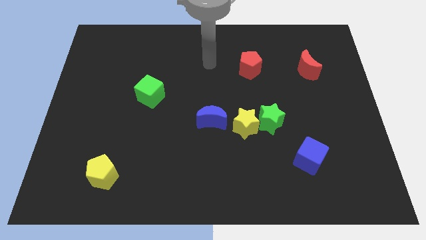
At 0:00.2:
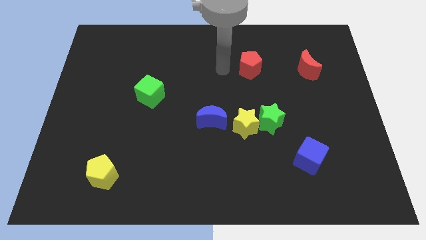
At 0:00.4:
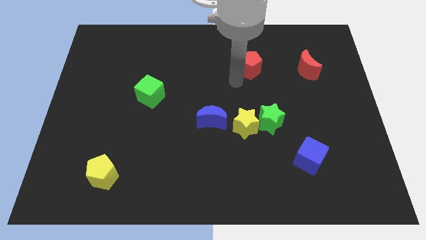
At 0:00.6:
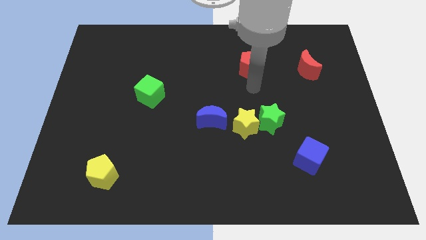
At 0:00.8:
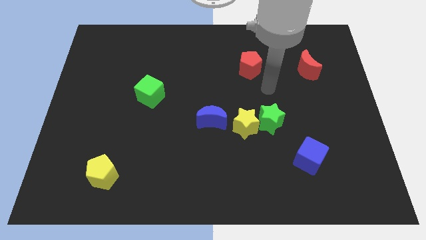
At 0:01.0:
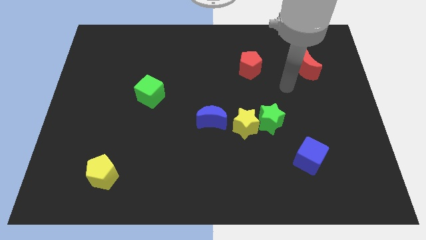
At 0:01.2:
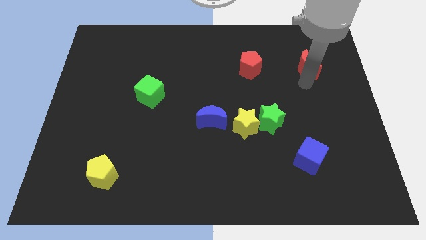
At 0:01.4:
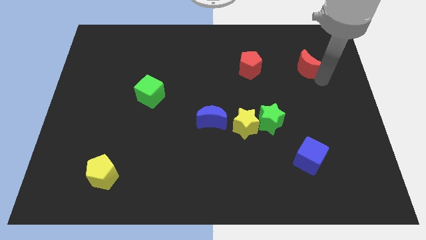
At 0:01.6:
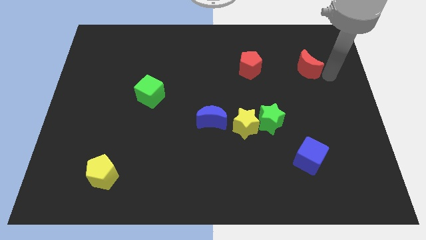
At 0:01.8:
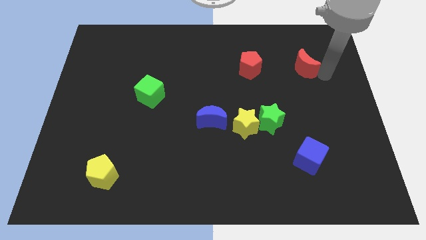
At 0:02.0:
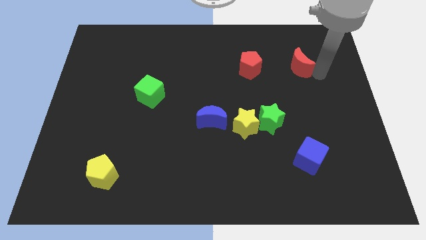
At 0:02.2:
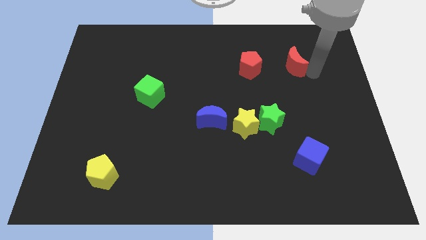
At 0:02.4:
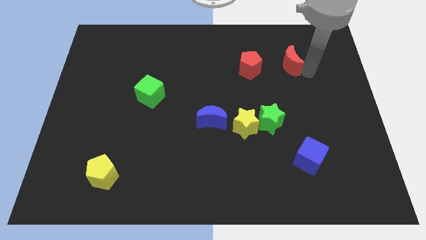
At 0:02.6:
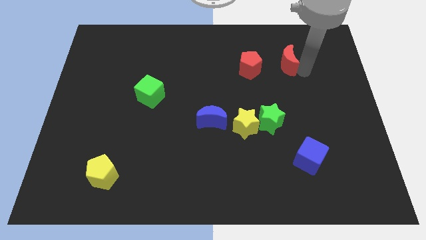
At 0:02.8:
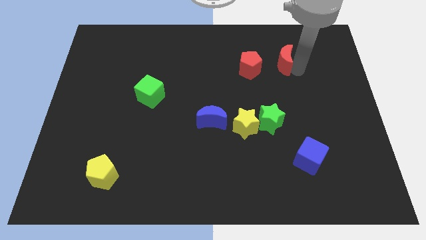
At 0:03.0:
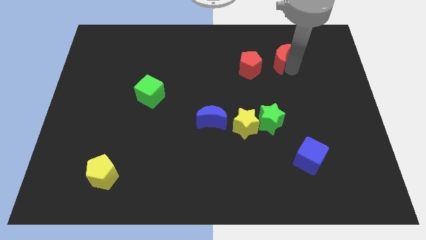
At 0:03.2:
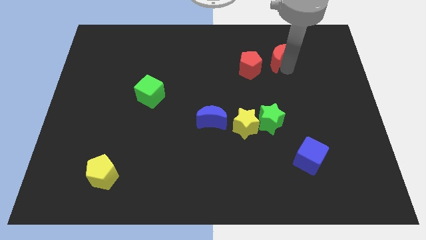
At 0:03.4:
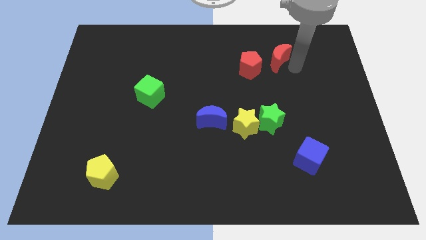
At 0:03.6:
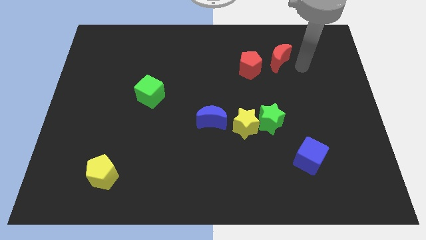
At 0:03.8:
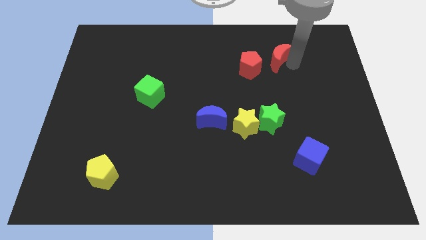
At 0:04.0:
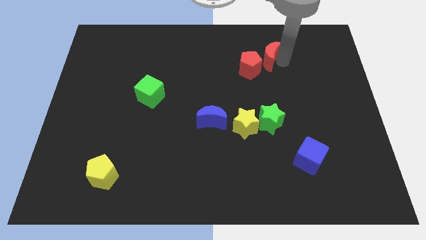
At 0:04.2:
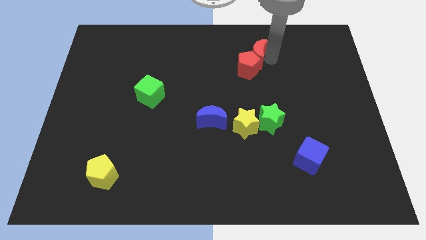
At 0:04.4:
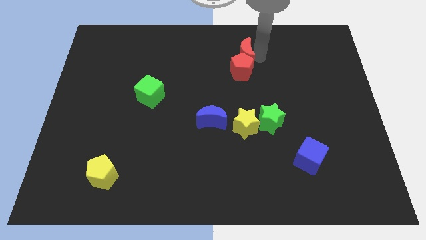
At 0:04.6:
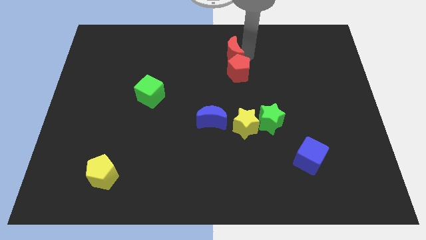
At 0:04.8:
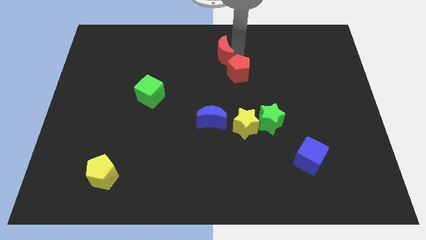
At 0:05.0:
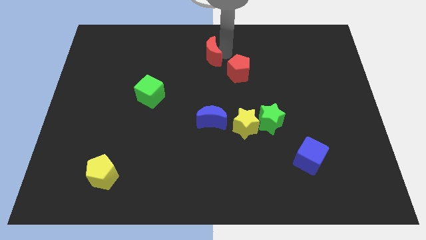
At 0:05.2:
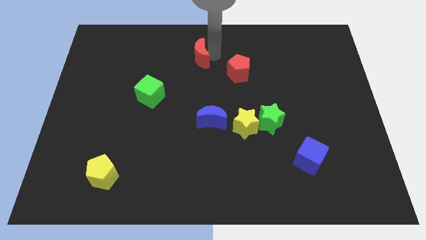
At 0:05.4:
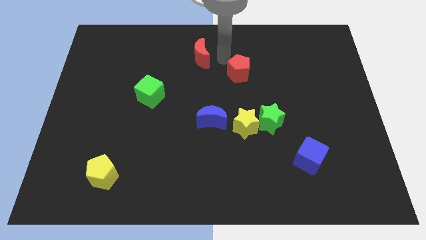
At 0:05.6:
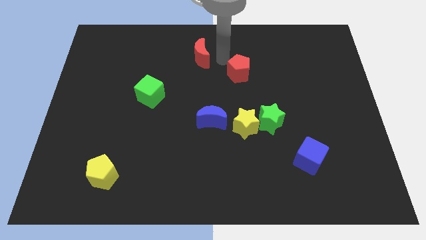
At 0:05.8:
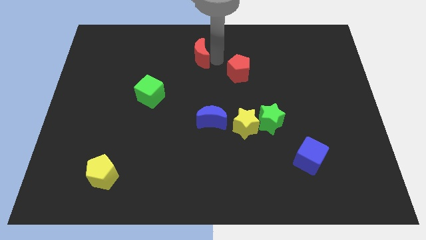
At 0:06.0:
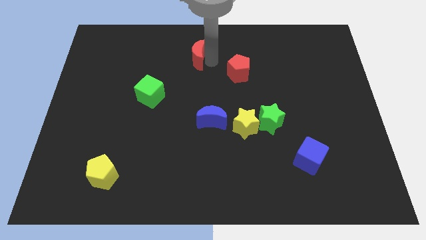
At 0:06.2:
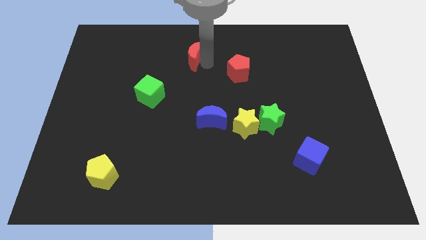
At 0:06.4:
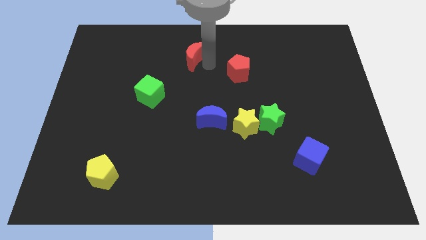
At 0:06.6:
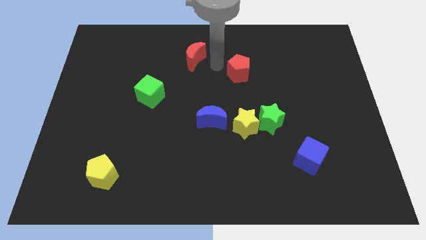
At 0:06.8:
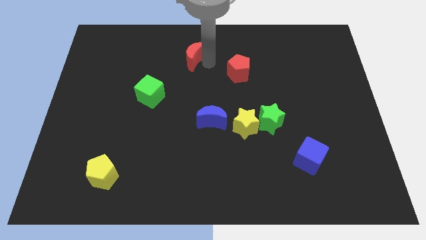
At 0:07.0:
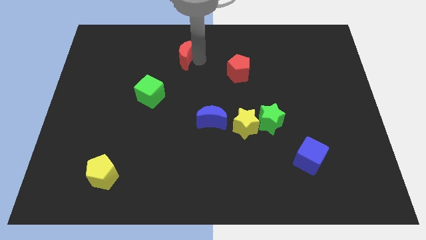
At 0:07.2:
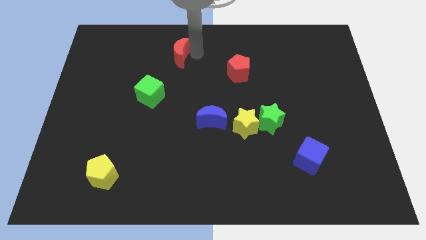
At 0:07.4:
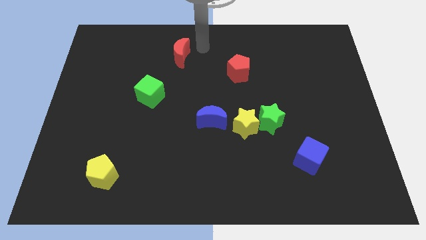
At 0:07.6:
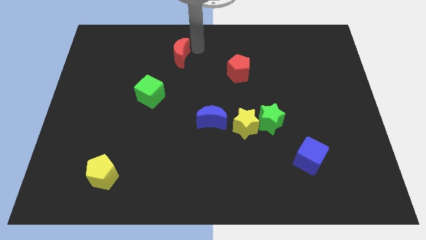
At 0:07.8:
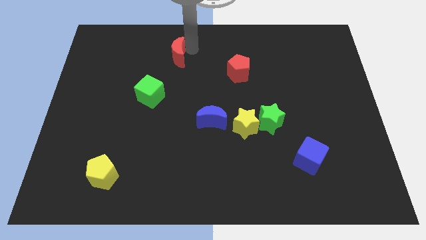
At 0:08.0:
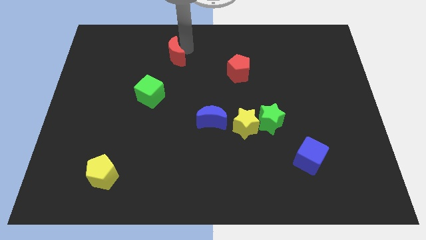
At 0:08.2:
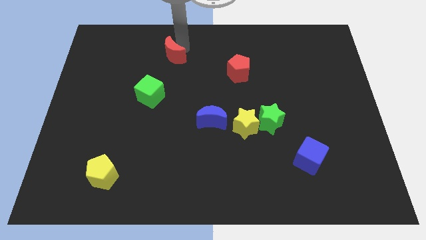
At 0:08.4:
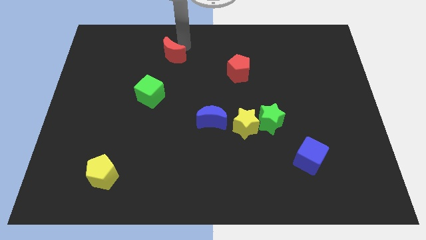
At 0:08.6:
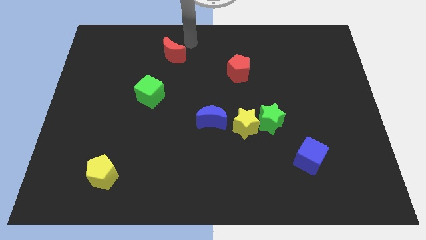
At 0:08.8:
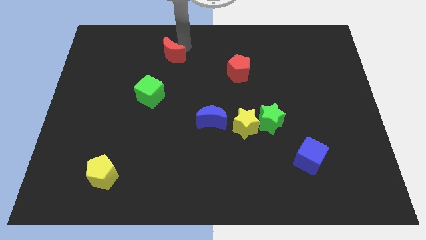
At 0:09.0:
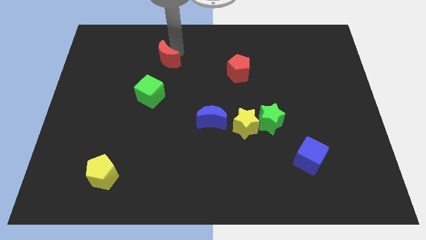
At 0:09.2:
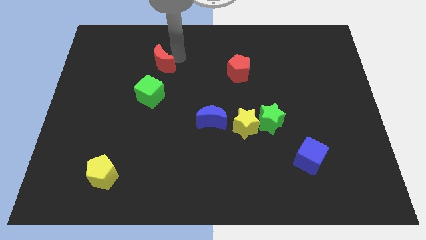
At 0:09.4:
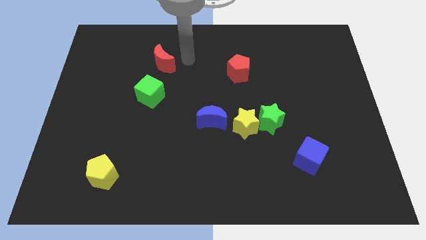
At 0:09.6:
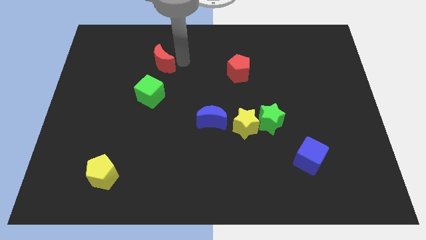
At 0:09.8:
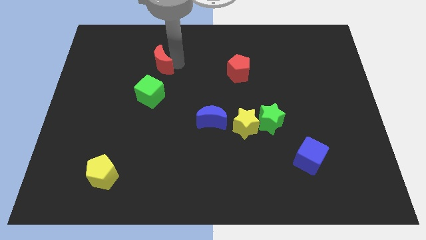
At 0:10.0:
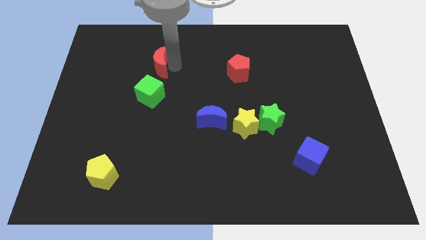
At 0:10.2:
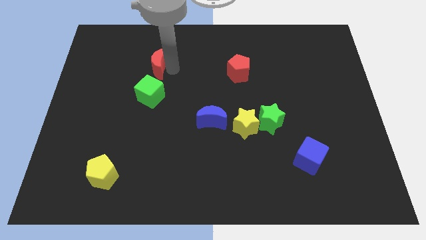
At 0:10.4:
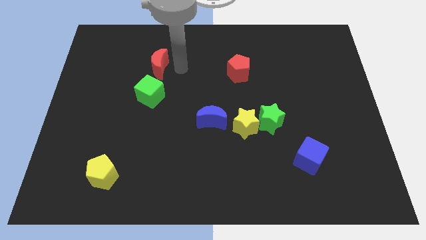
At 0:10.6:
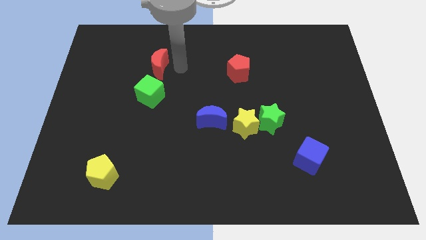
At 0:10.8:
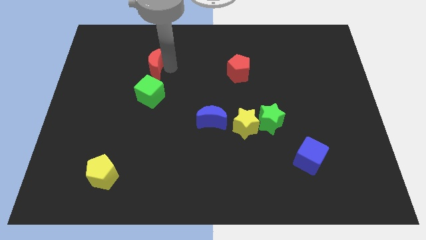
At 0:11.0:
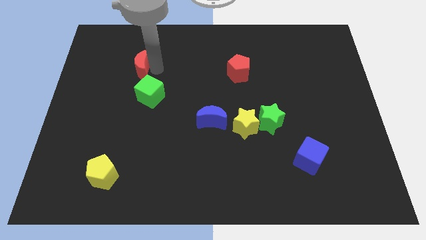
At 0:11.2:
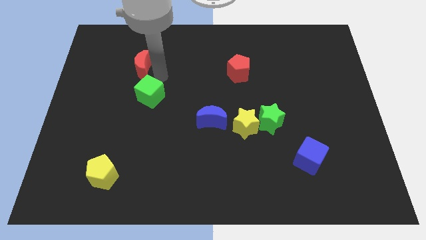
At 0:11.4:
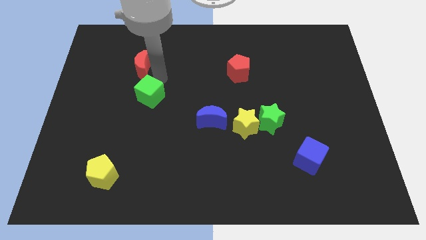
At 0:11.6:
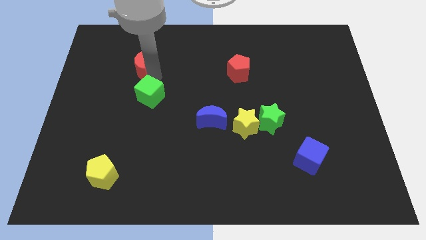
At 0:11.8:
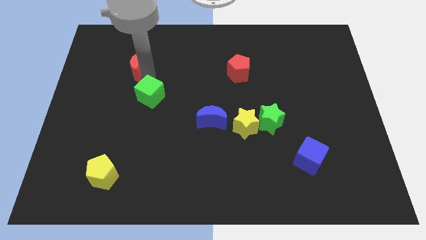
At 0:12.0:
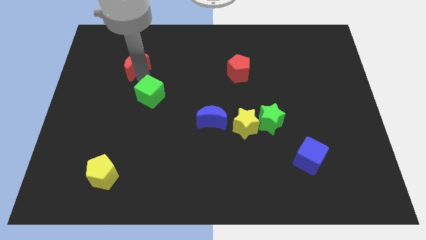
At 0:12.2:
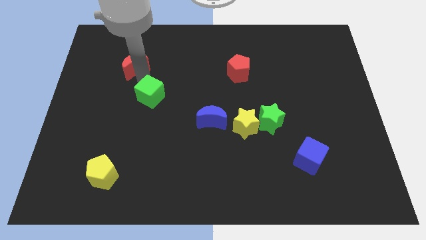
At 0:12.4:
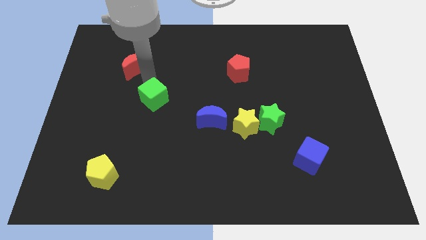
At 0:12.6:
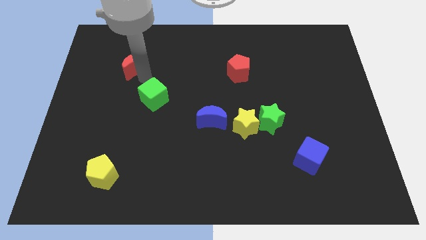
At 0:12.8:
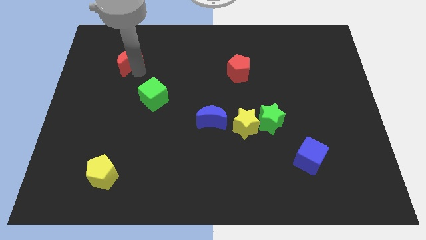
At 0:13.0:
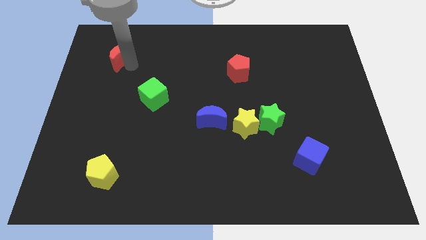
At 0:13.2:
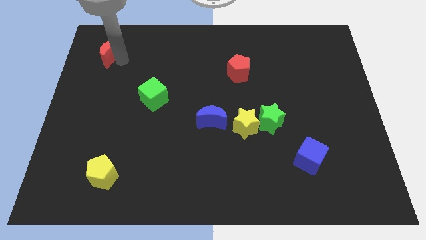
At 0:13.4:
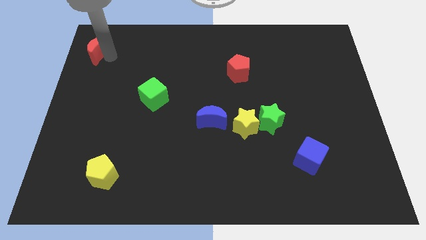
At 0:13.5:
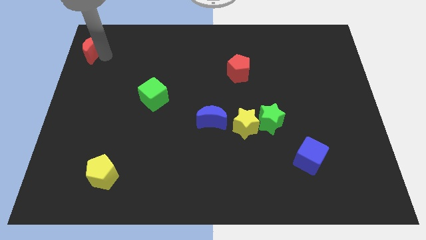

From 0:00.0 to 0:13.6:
push the red moon to the top left

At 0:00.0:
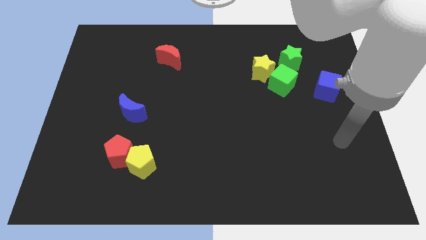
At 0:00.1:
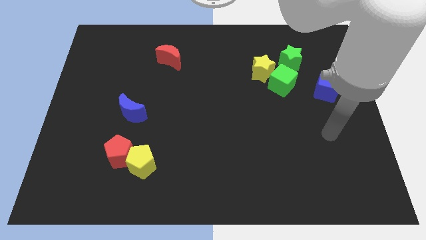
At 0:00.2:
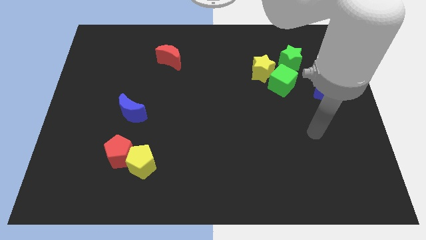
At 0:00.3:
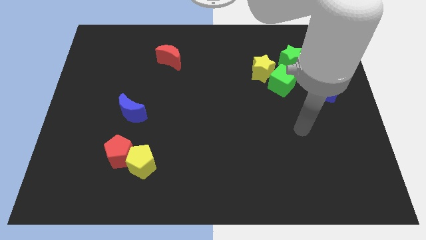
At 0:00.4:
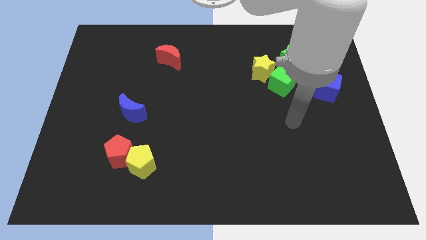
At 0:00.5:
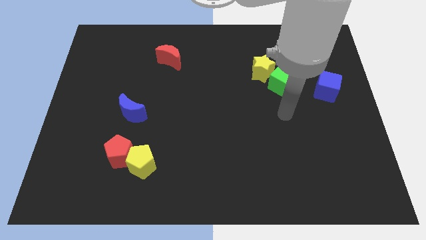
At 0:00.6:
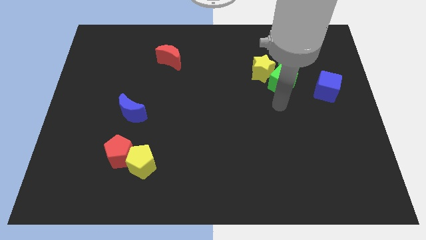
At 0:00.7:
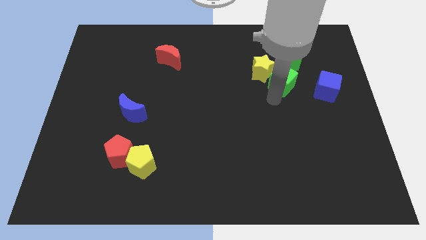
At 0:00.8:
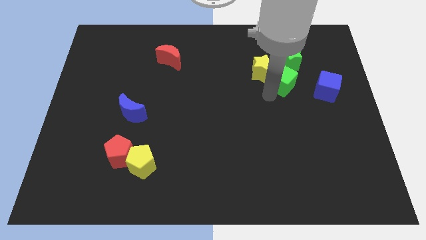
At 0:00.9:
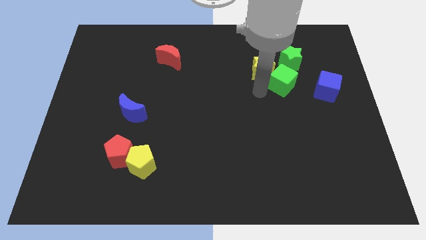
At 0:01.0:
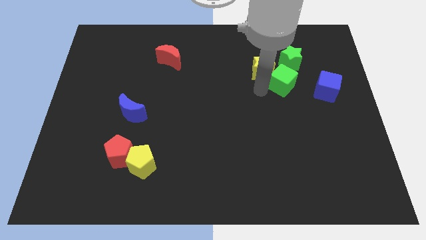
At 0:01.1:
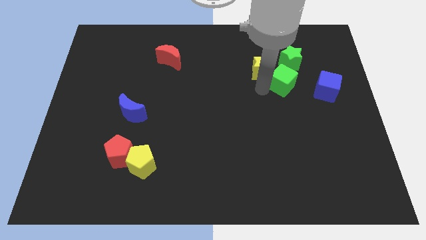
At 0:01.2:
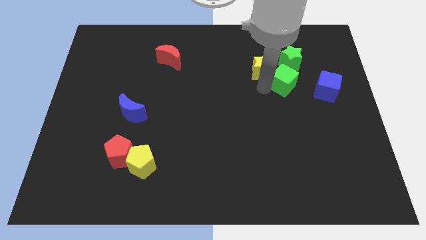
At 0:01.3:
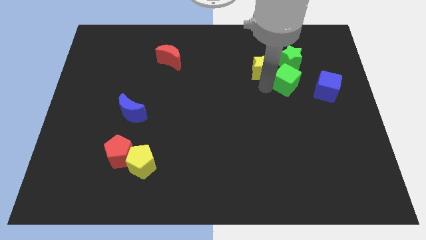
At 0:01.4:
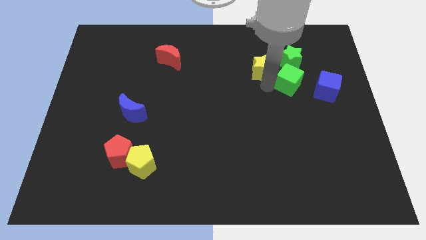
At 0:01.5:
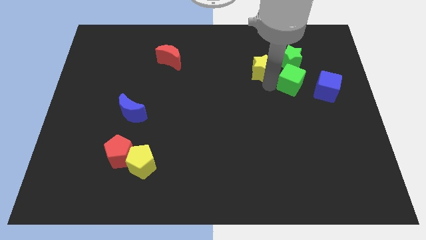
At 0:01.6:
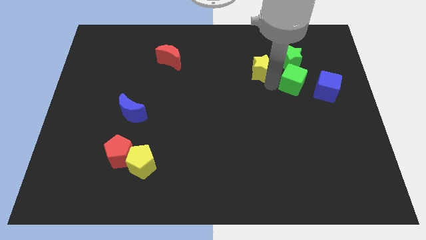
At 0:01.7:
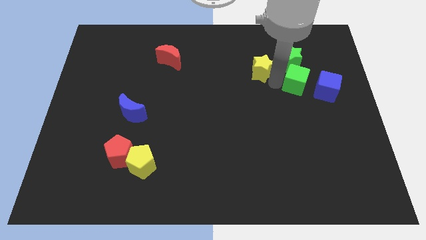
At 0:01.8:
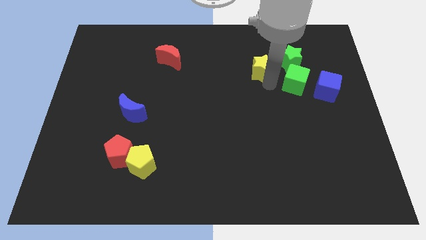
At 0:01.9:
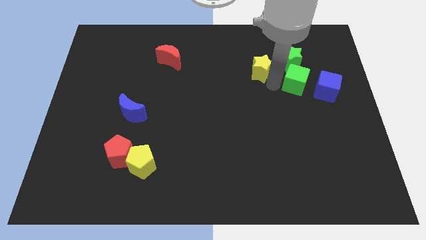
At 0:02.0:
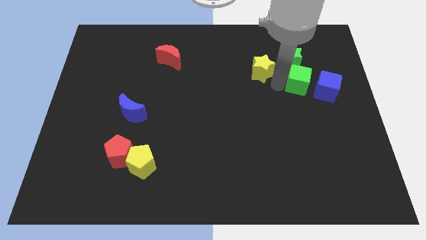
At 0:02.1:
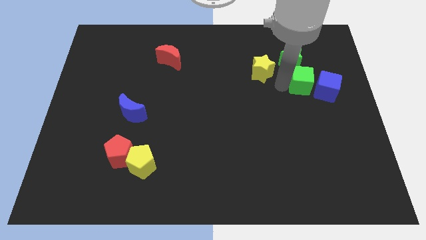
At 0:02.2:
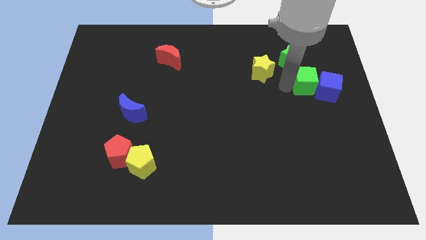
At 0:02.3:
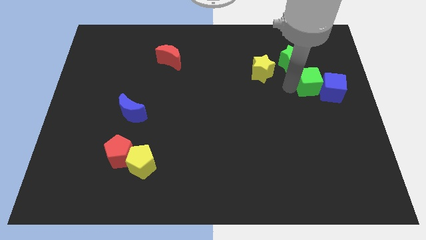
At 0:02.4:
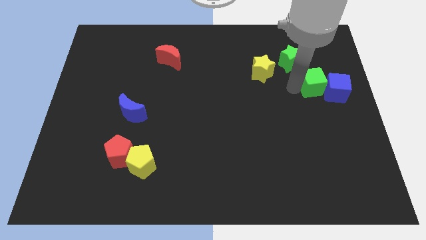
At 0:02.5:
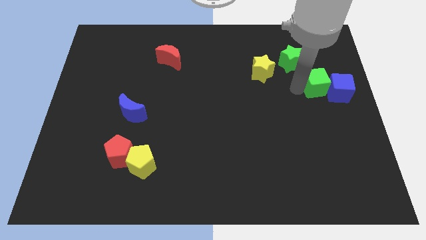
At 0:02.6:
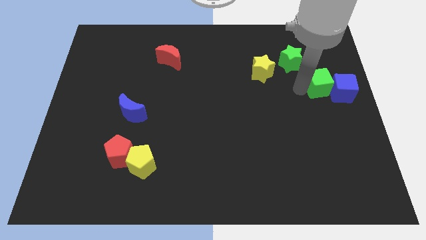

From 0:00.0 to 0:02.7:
push the green cube to the center right
